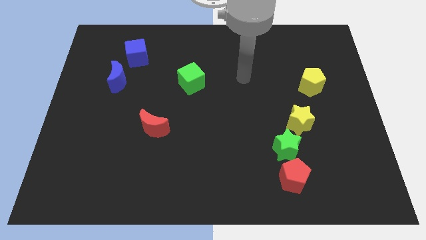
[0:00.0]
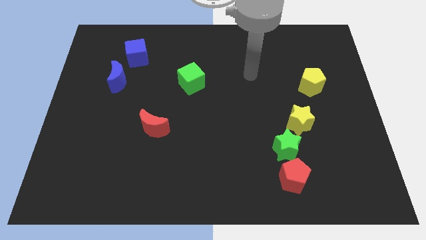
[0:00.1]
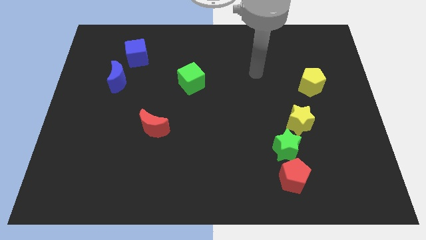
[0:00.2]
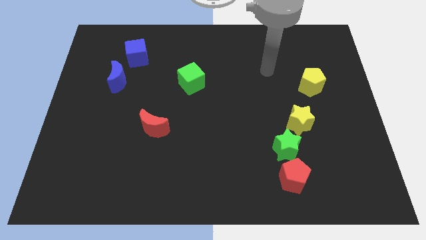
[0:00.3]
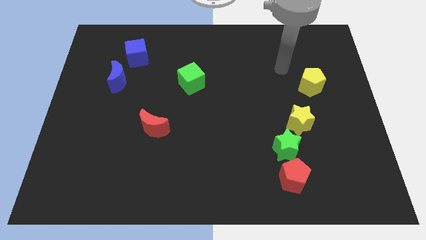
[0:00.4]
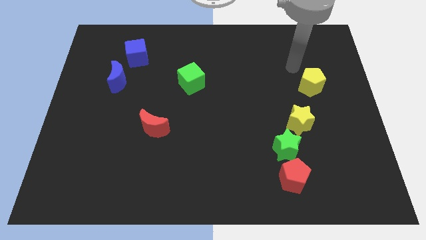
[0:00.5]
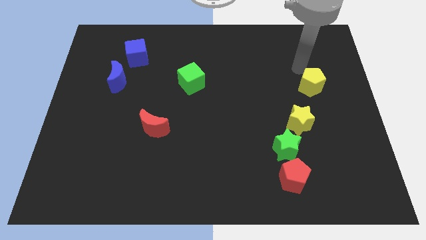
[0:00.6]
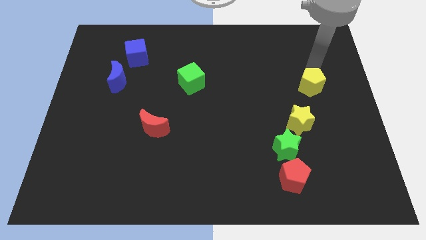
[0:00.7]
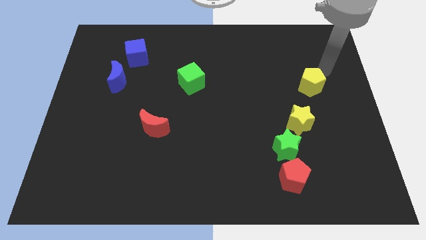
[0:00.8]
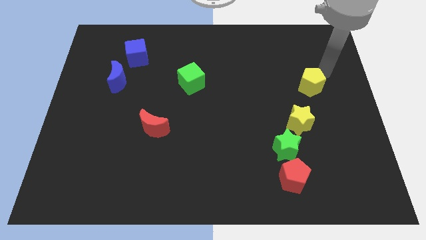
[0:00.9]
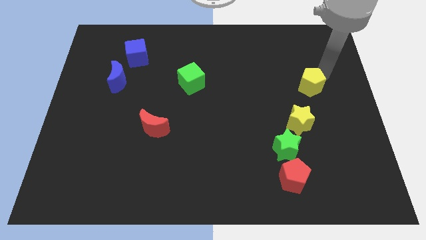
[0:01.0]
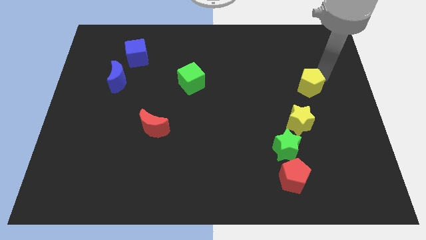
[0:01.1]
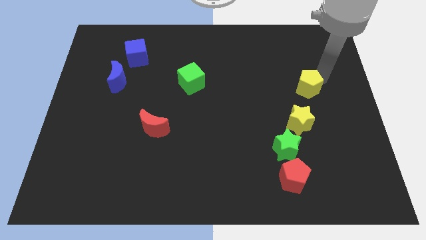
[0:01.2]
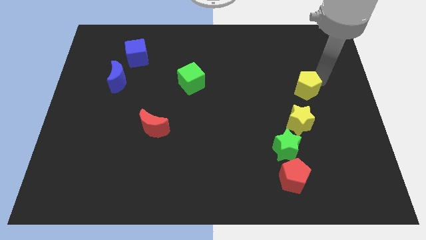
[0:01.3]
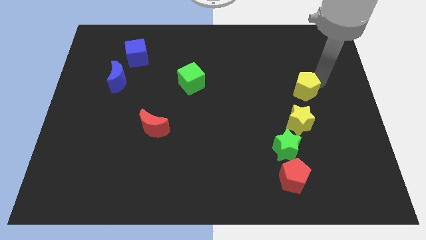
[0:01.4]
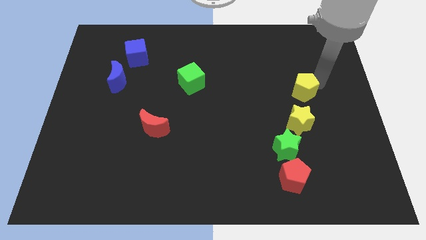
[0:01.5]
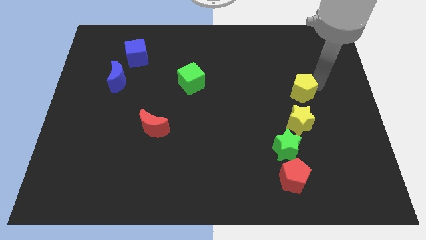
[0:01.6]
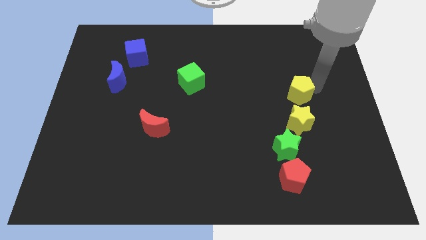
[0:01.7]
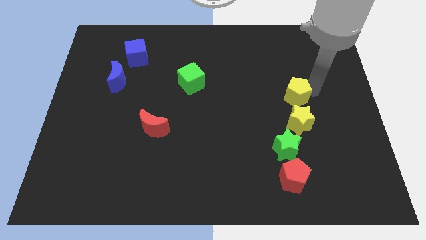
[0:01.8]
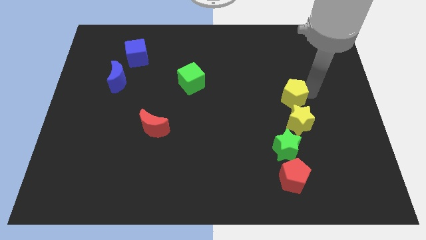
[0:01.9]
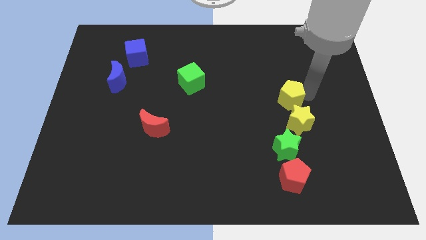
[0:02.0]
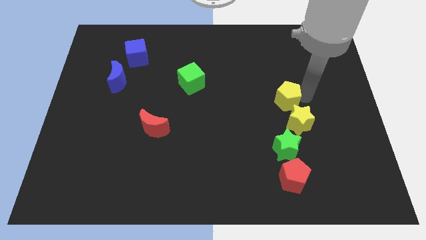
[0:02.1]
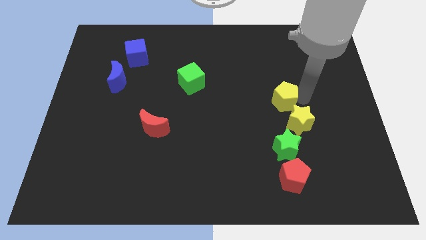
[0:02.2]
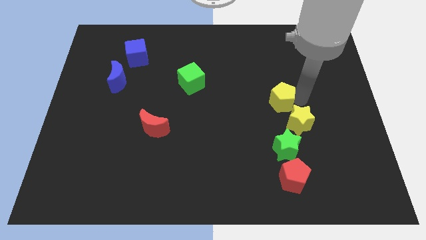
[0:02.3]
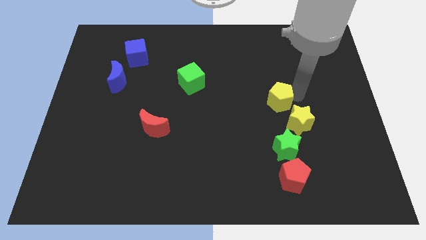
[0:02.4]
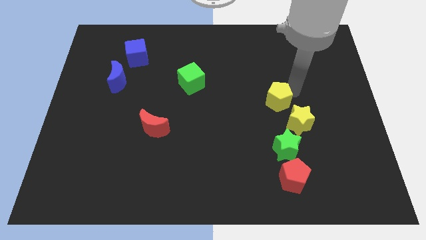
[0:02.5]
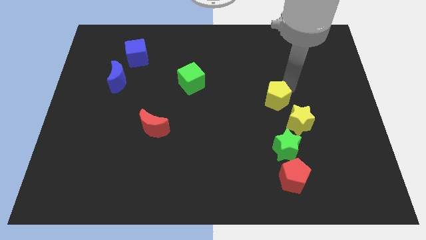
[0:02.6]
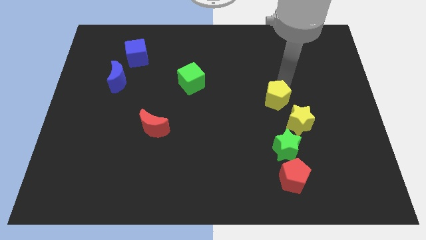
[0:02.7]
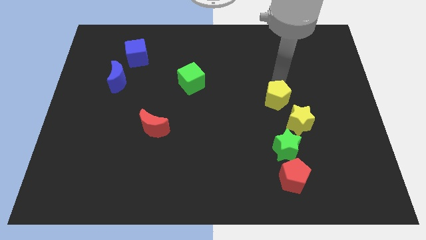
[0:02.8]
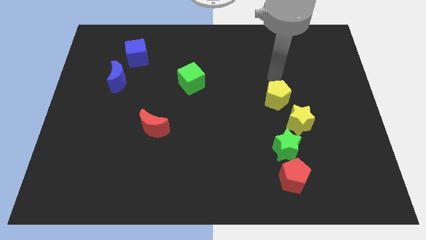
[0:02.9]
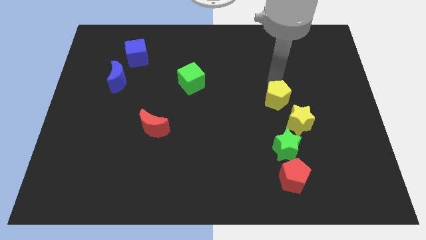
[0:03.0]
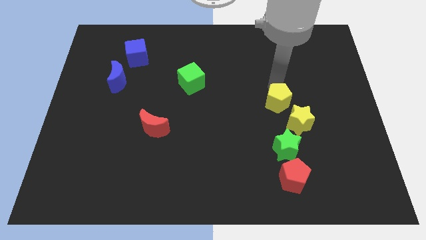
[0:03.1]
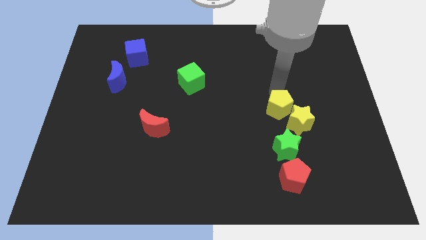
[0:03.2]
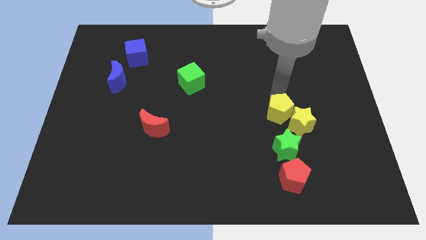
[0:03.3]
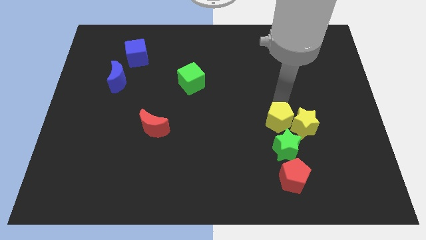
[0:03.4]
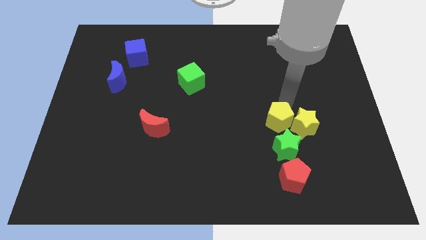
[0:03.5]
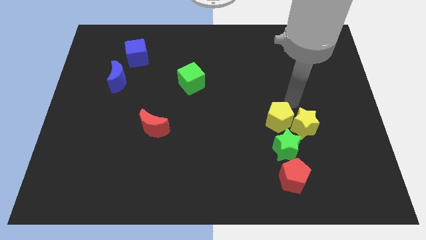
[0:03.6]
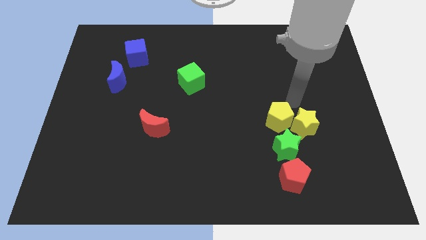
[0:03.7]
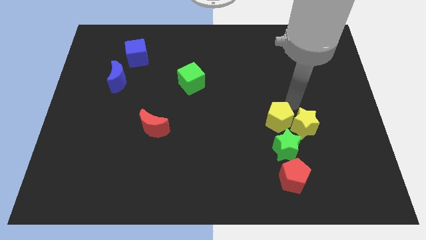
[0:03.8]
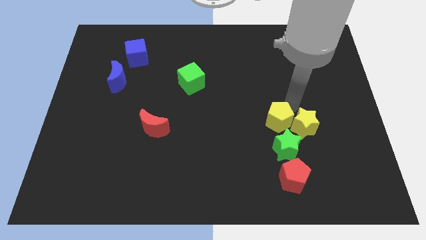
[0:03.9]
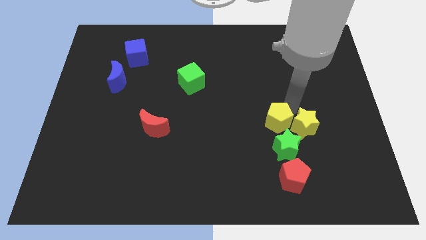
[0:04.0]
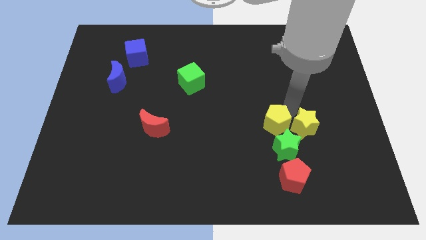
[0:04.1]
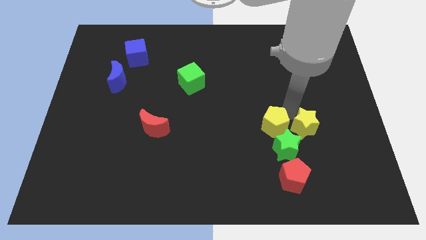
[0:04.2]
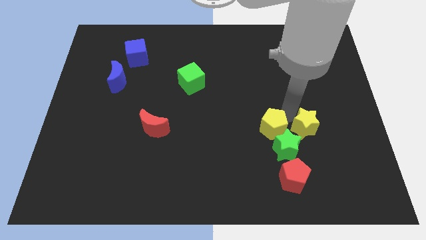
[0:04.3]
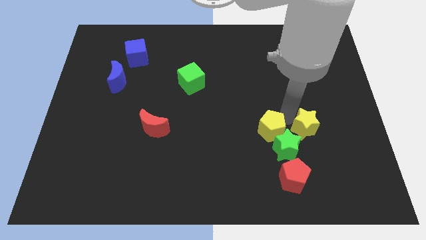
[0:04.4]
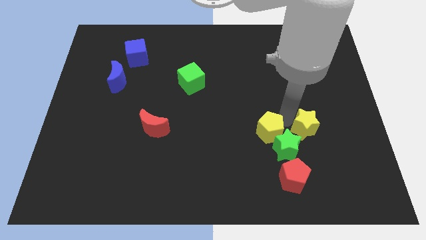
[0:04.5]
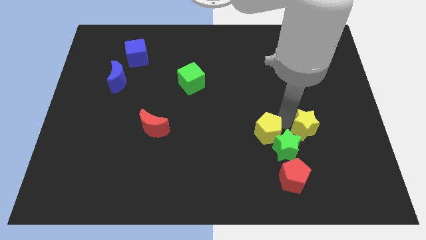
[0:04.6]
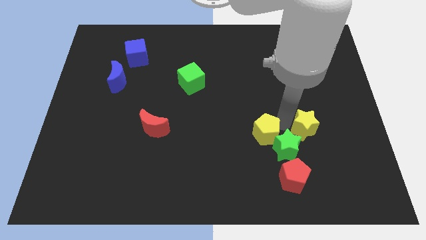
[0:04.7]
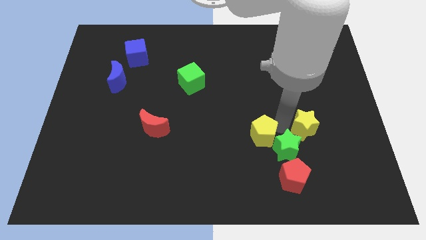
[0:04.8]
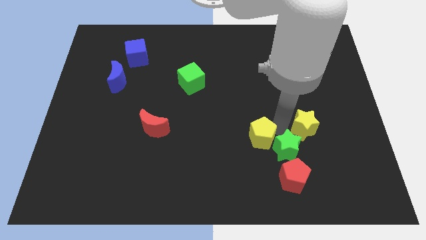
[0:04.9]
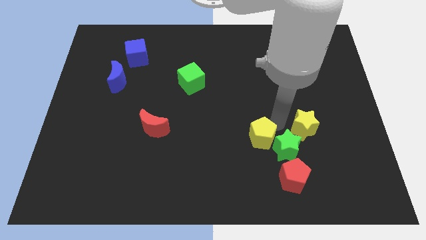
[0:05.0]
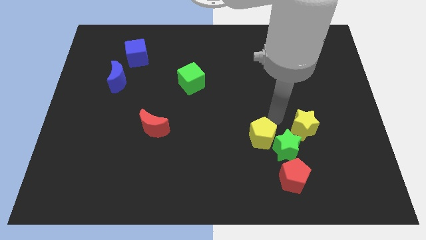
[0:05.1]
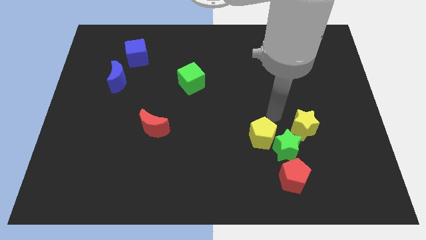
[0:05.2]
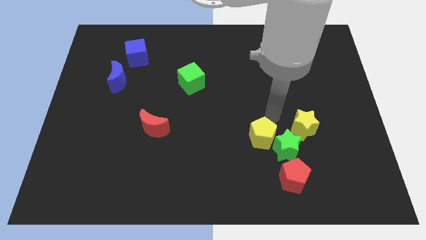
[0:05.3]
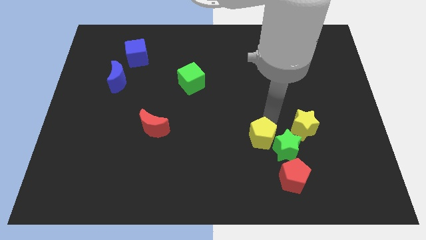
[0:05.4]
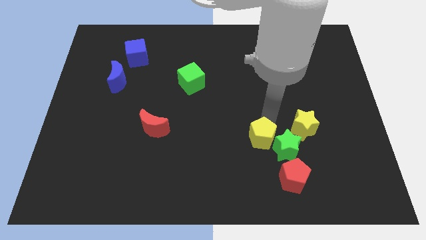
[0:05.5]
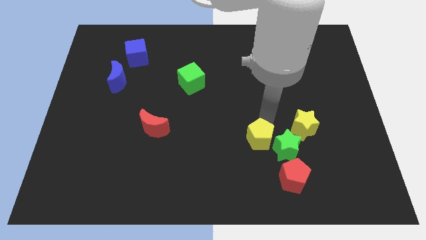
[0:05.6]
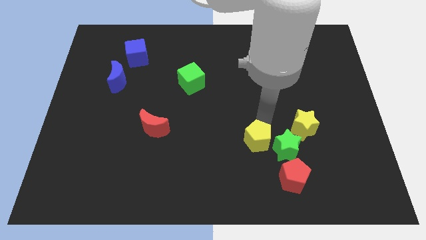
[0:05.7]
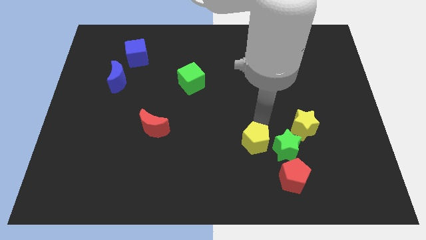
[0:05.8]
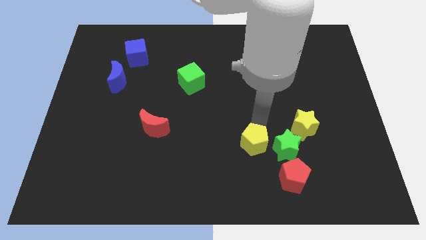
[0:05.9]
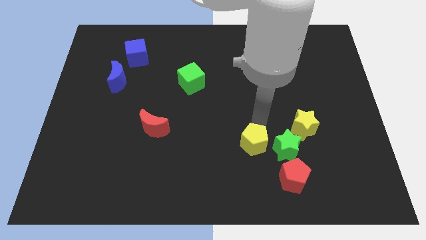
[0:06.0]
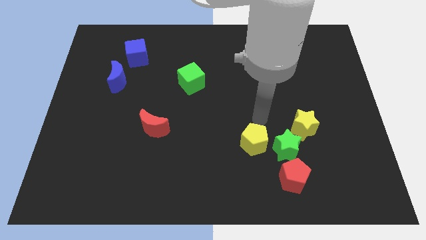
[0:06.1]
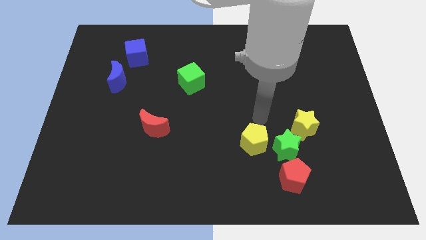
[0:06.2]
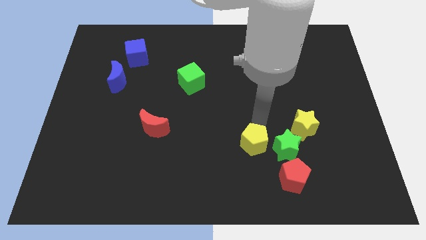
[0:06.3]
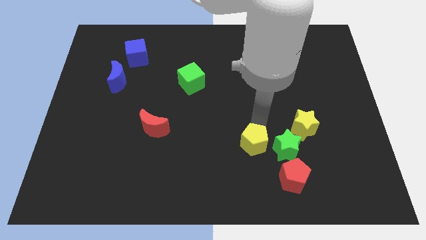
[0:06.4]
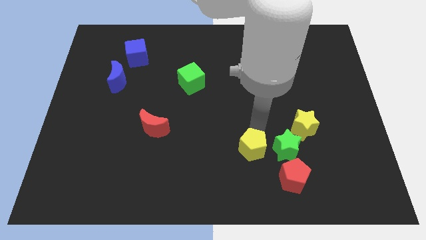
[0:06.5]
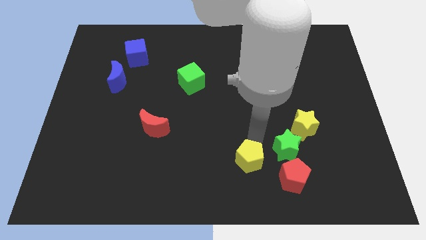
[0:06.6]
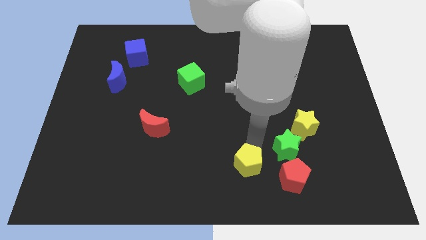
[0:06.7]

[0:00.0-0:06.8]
move the yellow pentagon to the bottom
